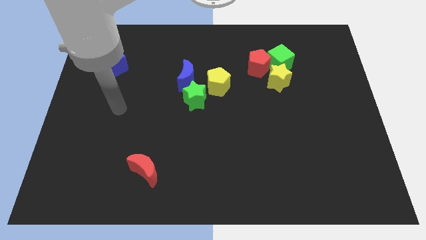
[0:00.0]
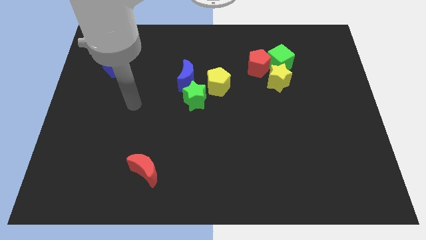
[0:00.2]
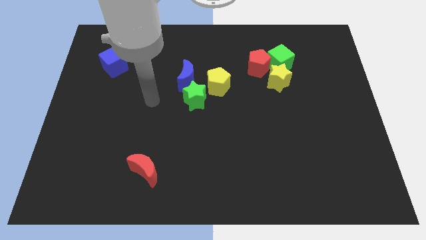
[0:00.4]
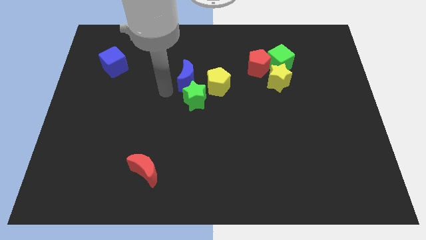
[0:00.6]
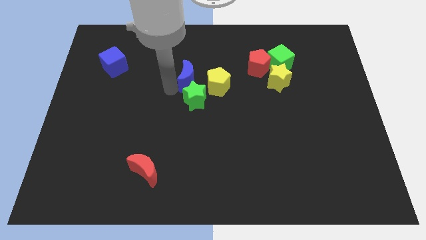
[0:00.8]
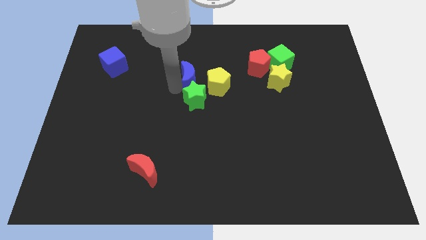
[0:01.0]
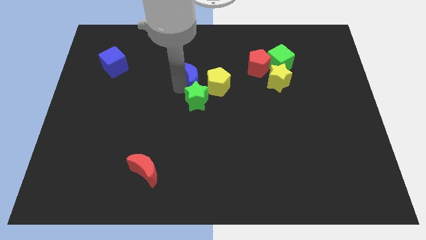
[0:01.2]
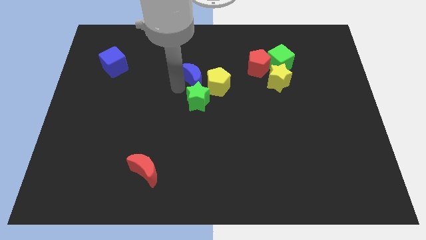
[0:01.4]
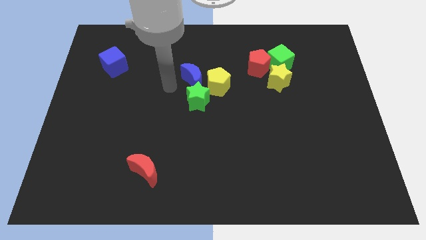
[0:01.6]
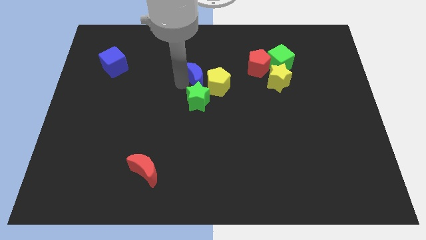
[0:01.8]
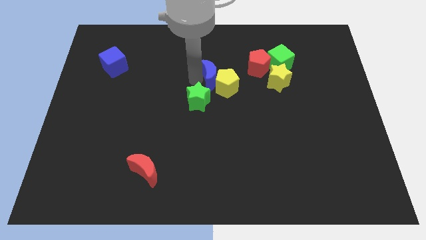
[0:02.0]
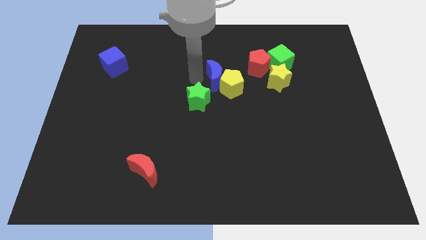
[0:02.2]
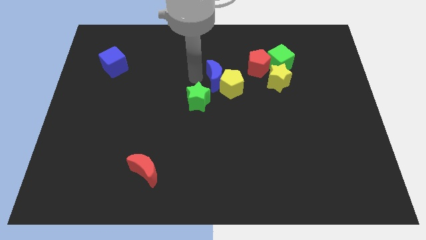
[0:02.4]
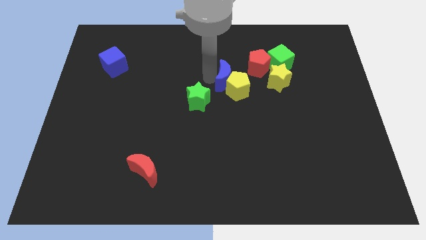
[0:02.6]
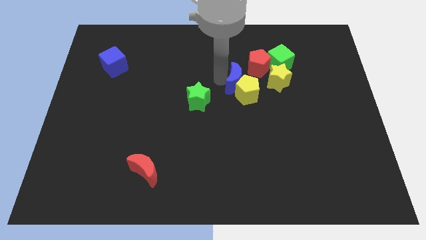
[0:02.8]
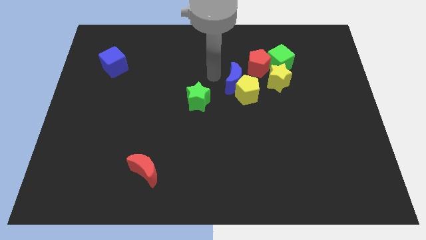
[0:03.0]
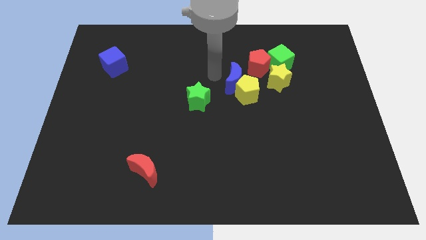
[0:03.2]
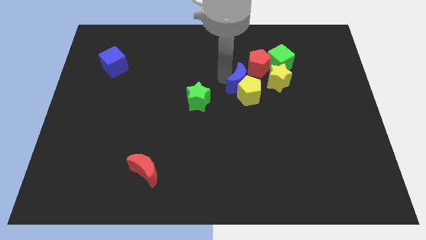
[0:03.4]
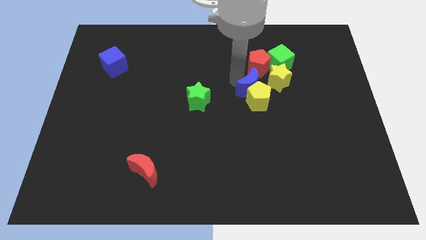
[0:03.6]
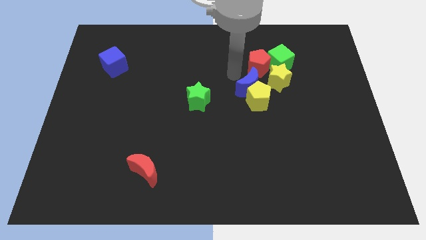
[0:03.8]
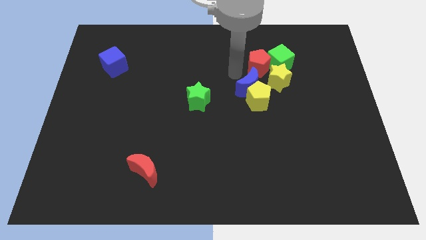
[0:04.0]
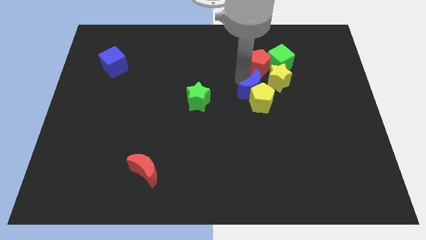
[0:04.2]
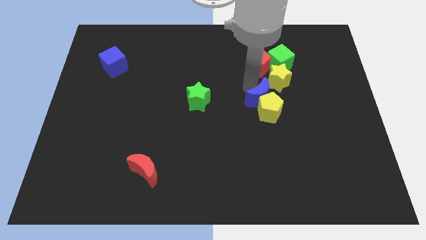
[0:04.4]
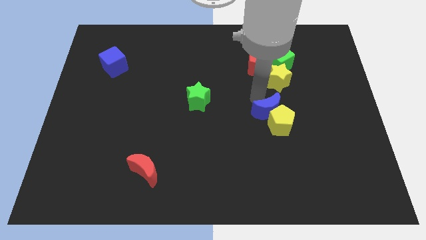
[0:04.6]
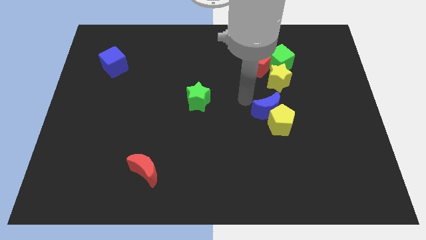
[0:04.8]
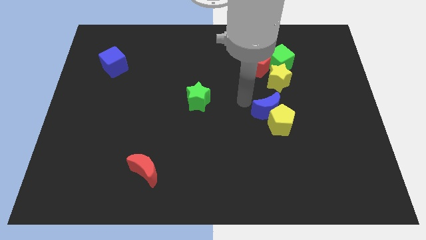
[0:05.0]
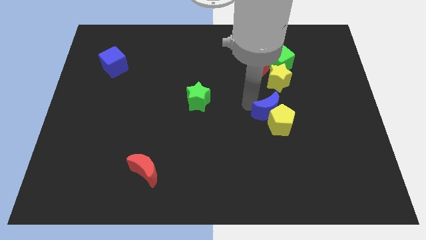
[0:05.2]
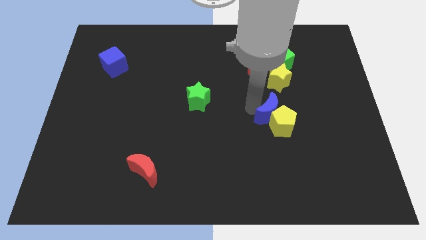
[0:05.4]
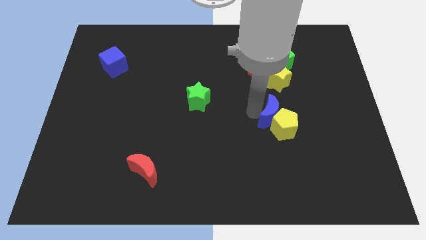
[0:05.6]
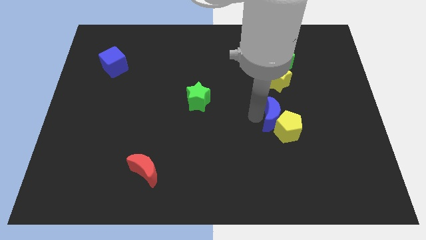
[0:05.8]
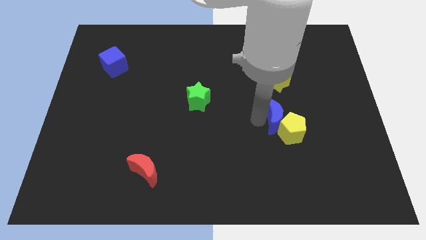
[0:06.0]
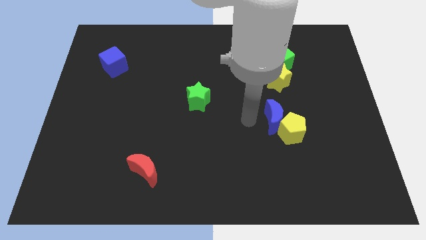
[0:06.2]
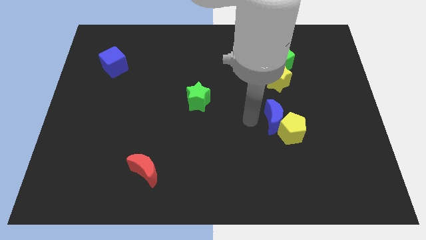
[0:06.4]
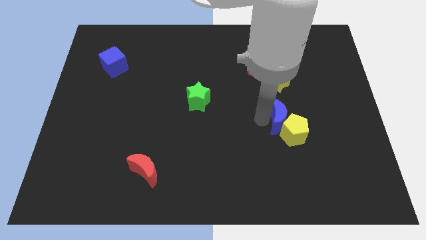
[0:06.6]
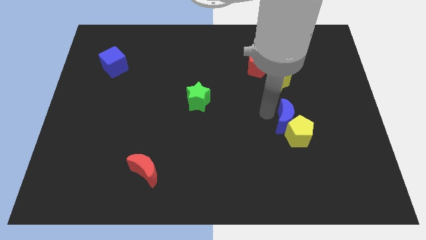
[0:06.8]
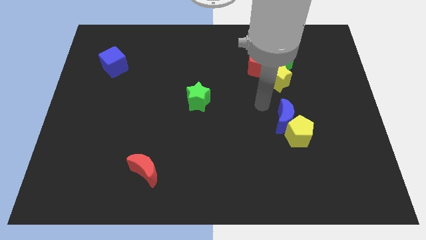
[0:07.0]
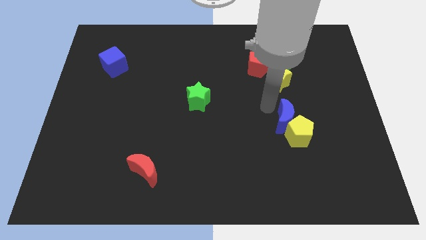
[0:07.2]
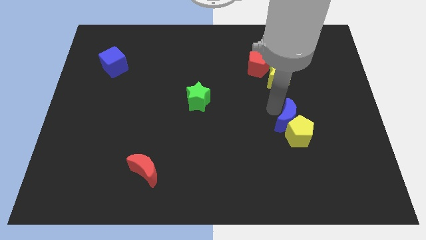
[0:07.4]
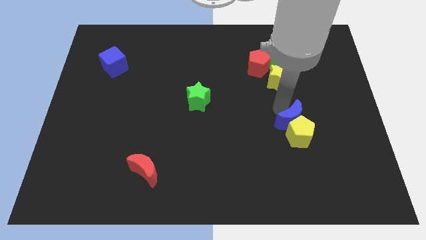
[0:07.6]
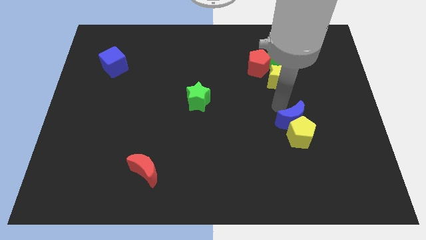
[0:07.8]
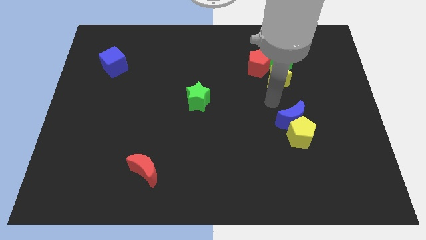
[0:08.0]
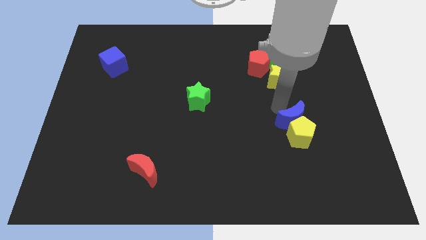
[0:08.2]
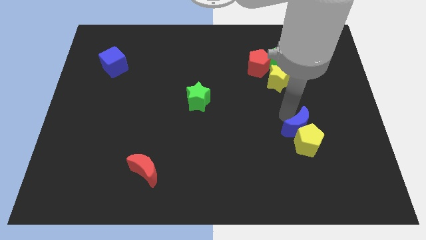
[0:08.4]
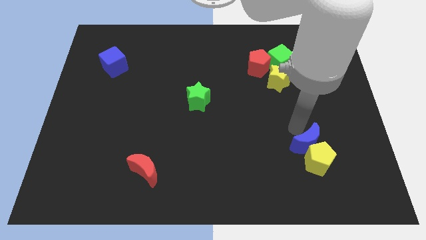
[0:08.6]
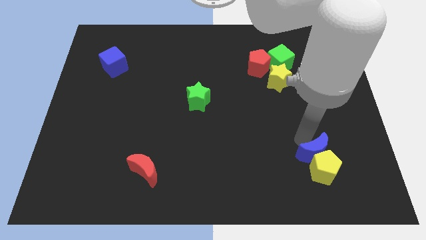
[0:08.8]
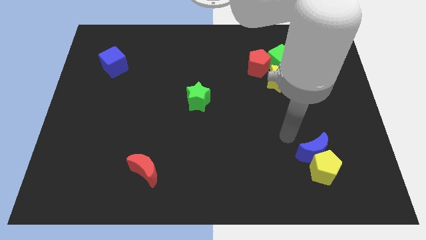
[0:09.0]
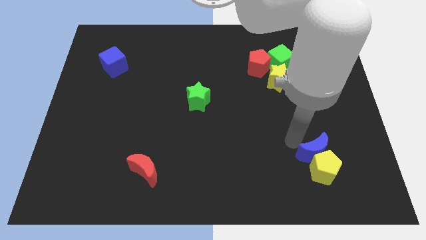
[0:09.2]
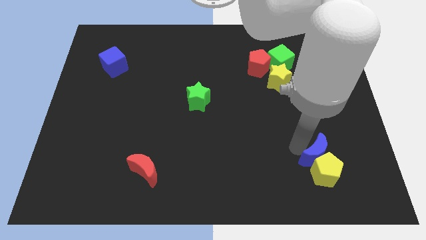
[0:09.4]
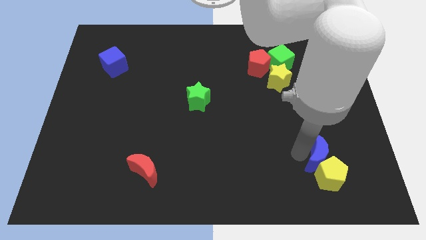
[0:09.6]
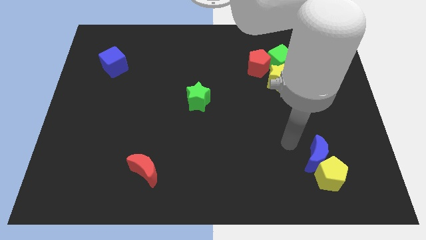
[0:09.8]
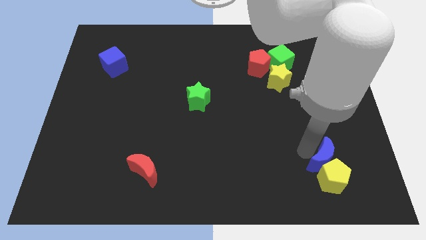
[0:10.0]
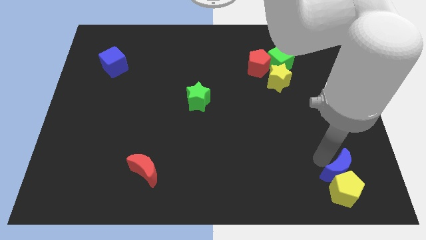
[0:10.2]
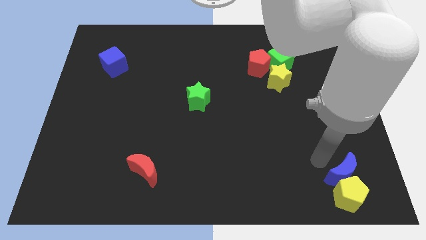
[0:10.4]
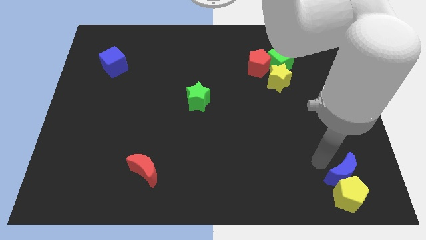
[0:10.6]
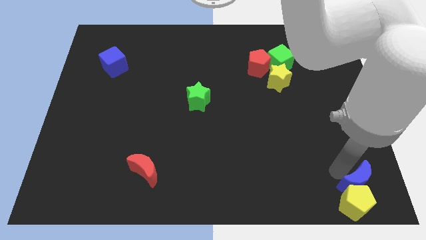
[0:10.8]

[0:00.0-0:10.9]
move the blue moon to the bottom right of the board

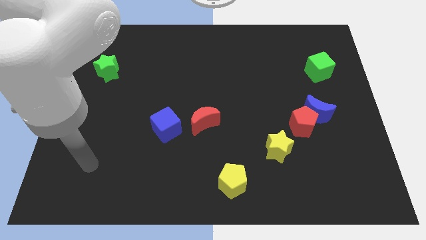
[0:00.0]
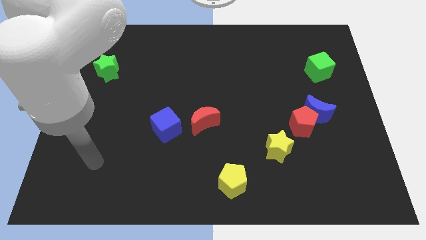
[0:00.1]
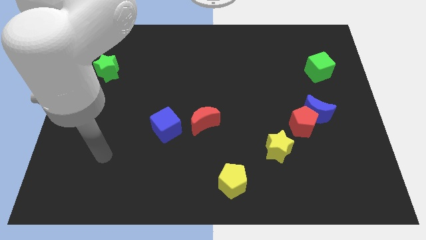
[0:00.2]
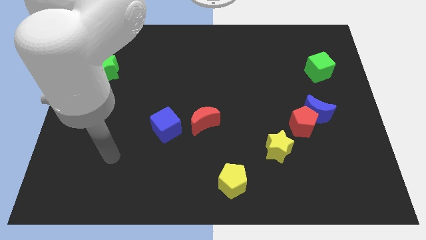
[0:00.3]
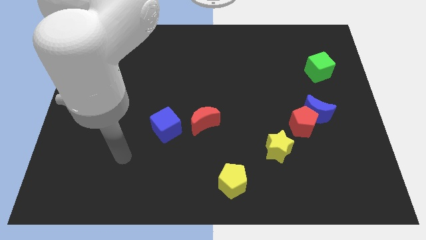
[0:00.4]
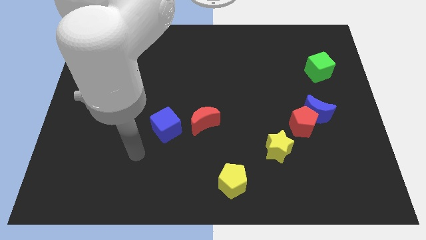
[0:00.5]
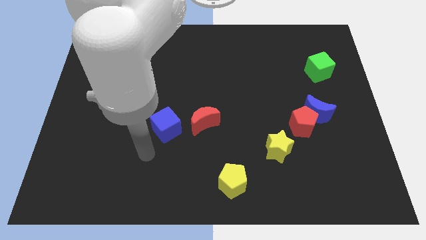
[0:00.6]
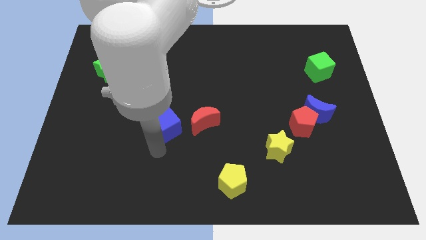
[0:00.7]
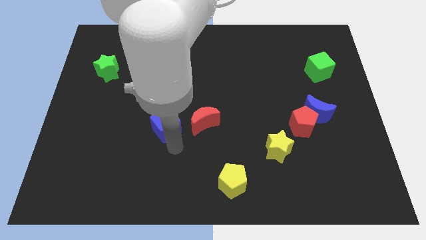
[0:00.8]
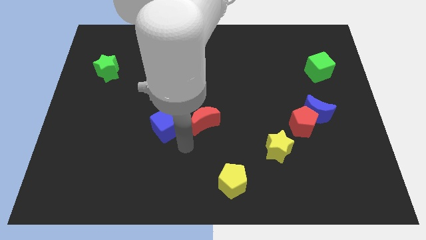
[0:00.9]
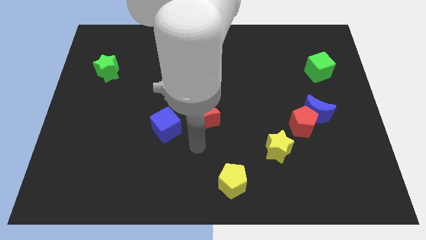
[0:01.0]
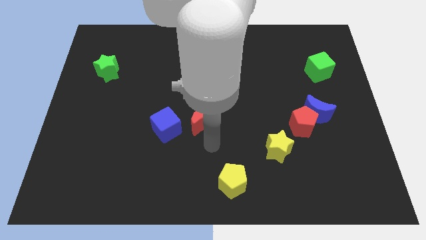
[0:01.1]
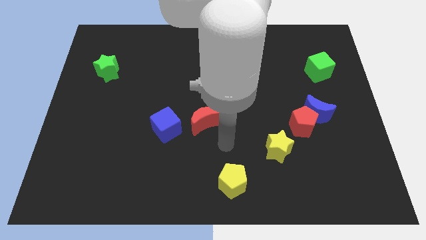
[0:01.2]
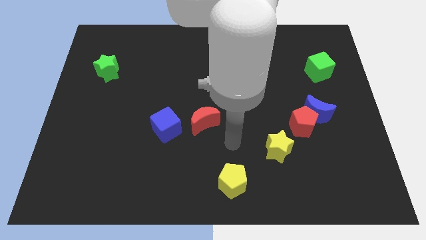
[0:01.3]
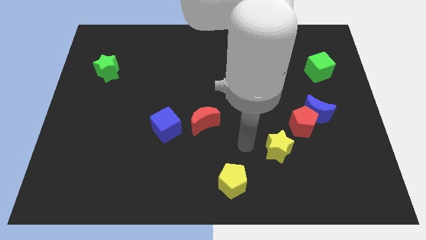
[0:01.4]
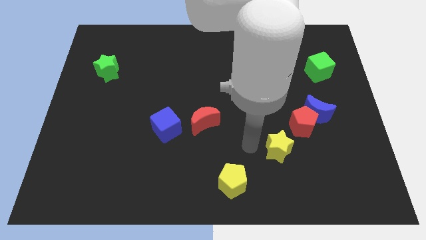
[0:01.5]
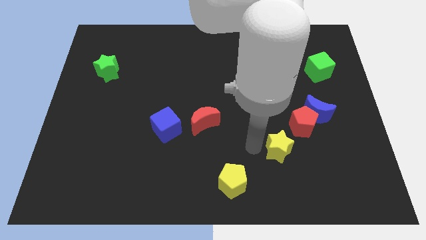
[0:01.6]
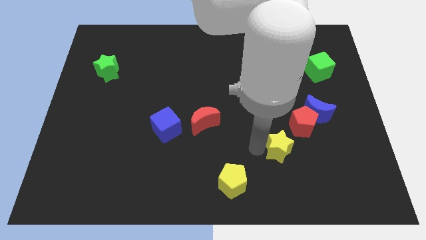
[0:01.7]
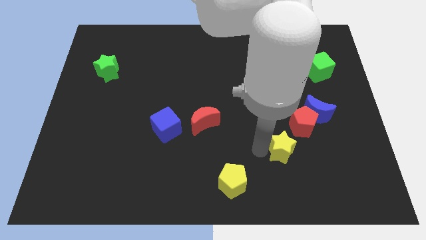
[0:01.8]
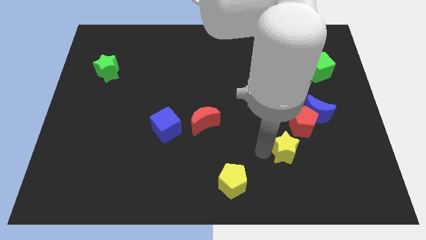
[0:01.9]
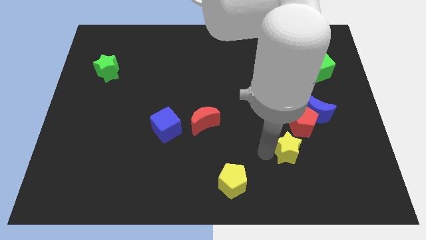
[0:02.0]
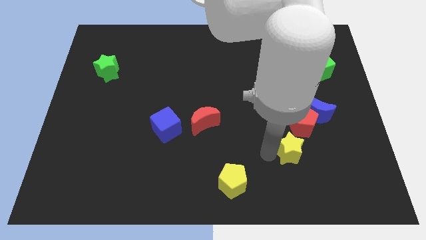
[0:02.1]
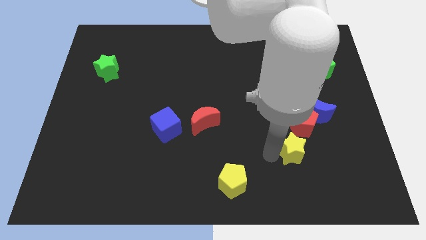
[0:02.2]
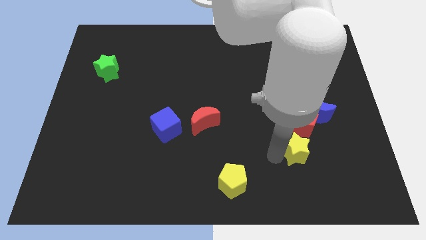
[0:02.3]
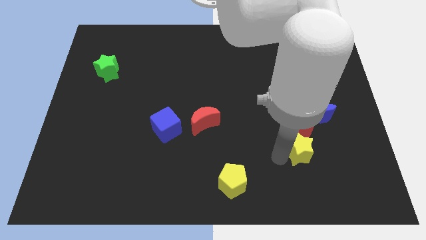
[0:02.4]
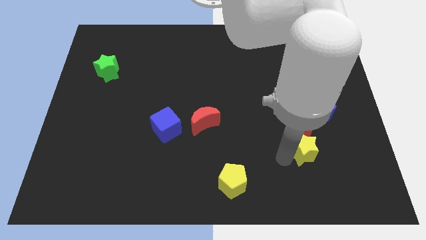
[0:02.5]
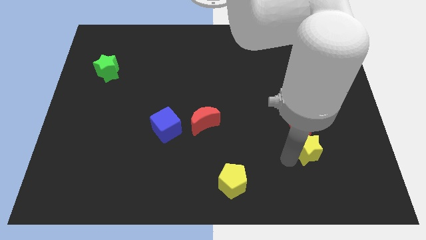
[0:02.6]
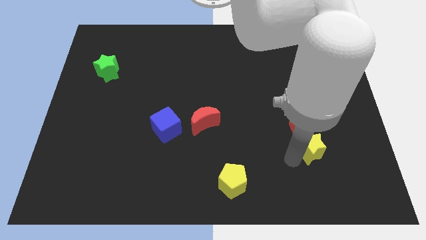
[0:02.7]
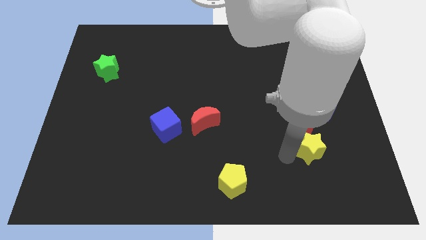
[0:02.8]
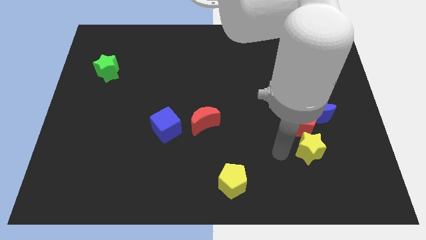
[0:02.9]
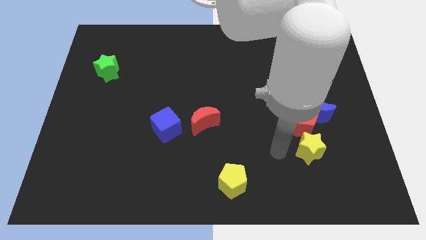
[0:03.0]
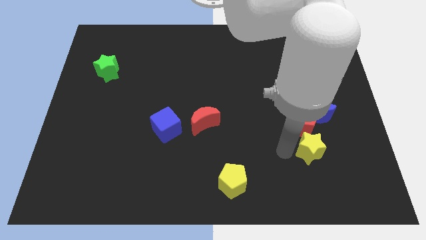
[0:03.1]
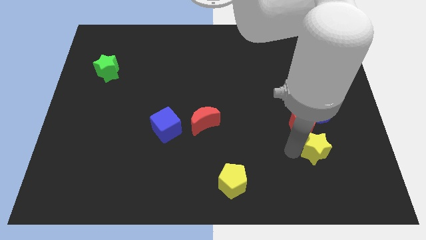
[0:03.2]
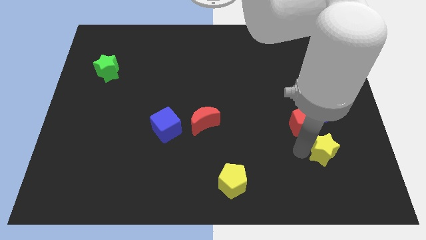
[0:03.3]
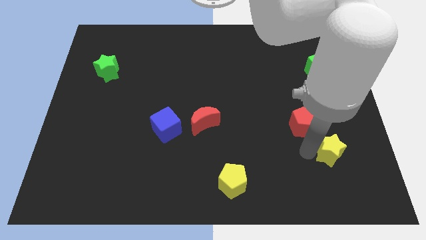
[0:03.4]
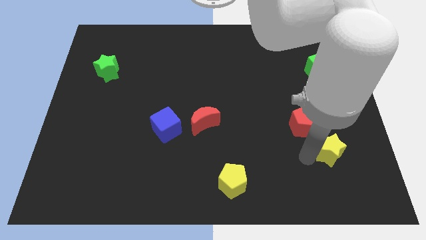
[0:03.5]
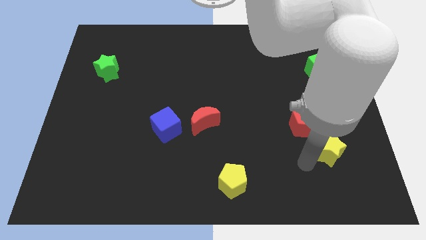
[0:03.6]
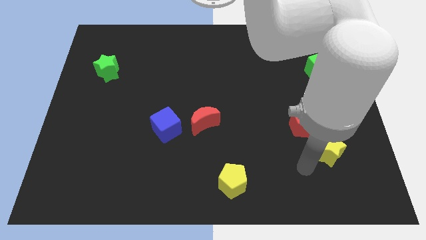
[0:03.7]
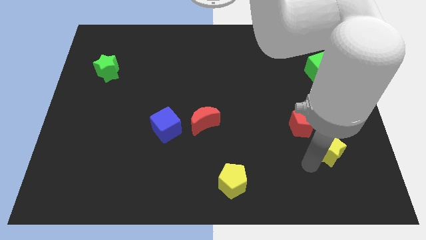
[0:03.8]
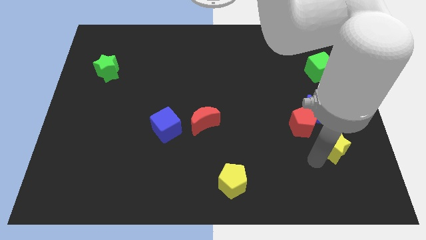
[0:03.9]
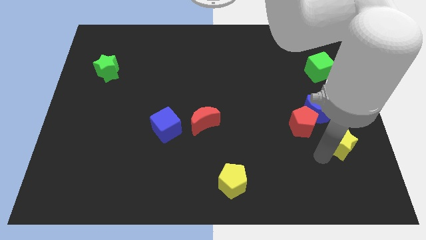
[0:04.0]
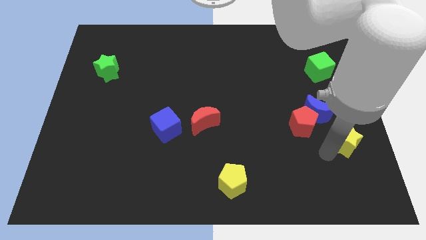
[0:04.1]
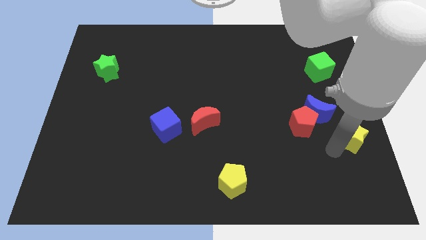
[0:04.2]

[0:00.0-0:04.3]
slide the yellow star to the right side
